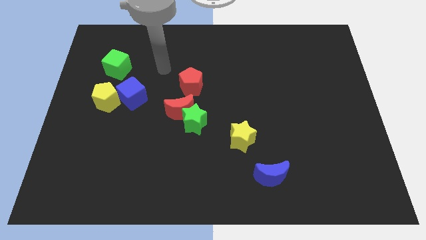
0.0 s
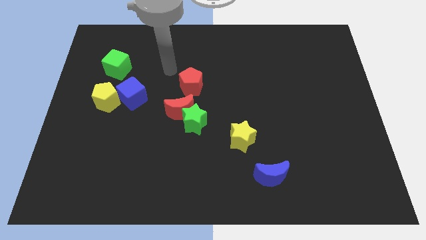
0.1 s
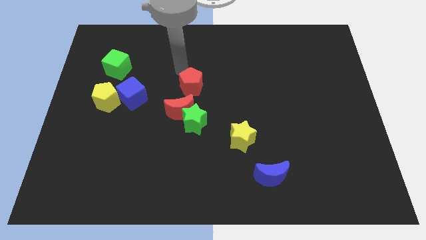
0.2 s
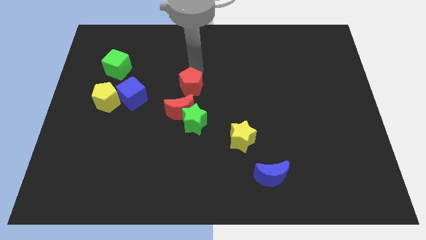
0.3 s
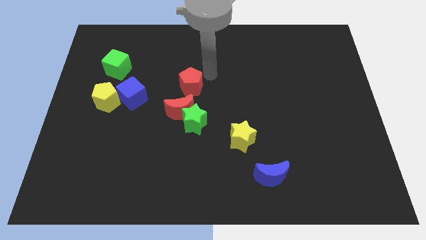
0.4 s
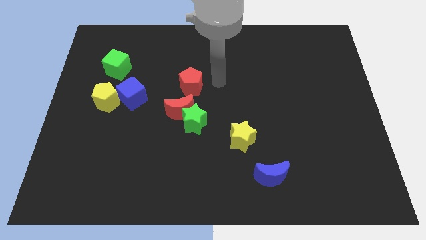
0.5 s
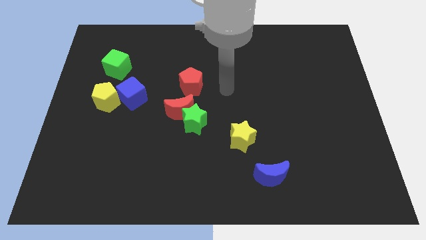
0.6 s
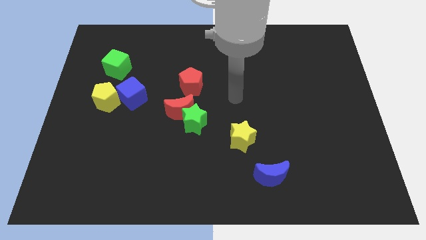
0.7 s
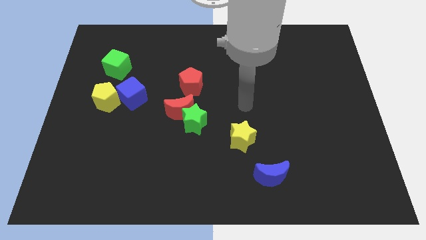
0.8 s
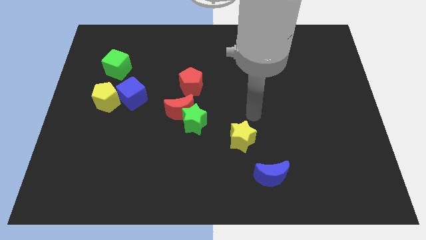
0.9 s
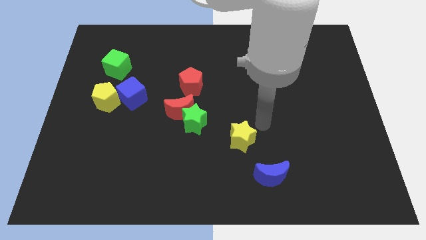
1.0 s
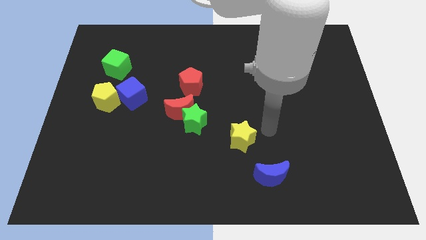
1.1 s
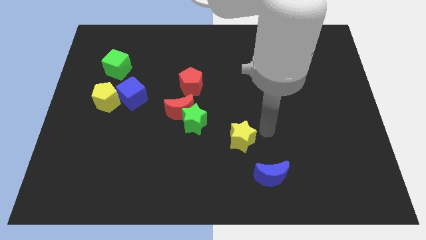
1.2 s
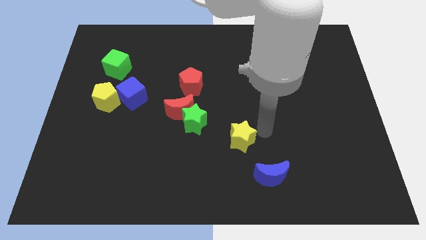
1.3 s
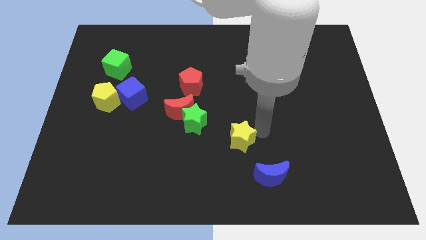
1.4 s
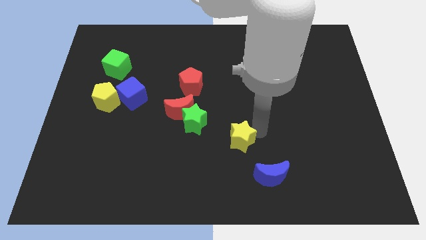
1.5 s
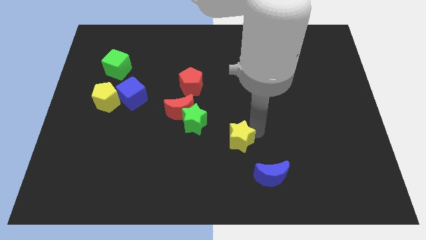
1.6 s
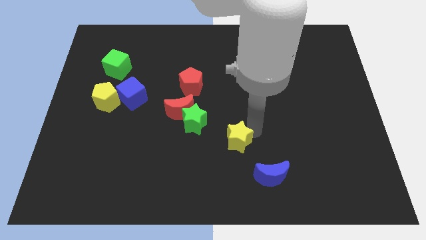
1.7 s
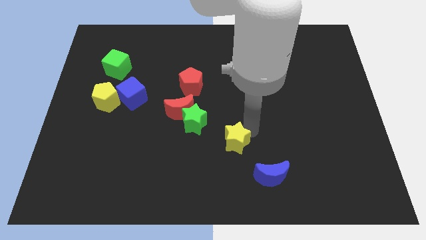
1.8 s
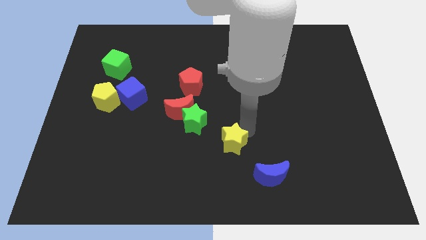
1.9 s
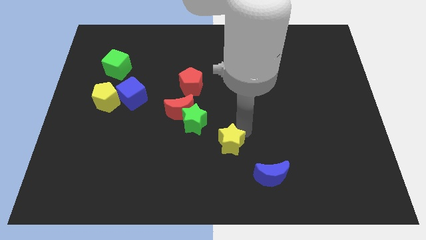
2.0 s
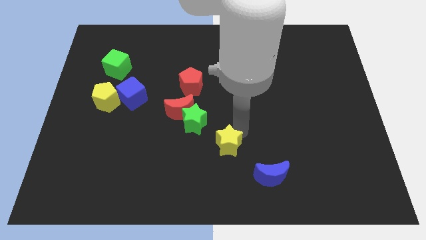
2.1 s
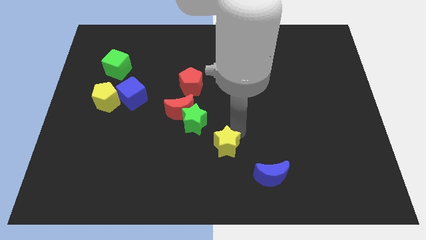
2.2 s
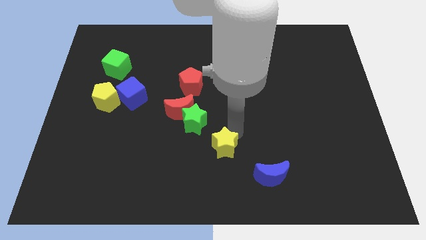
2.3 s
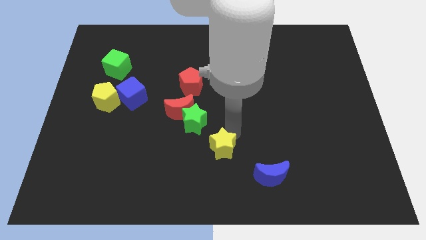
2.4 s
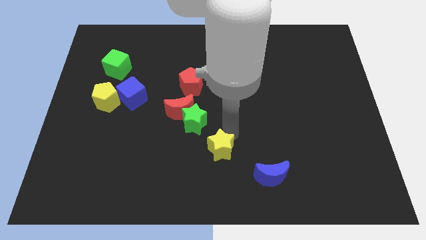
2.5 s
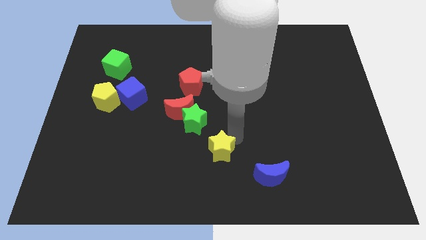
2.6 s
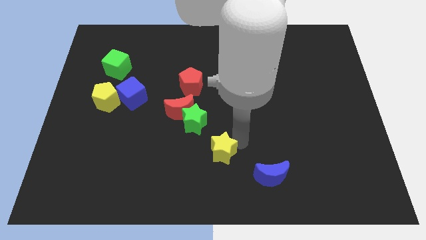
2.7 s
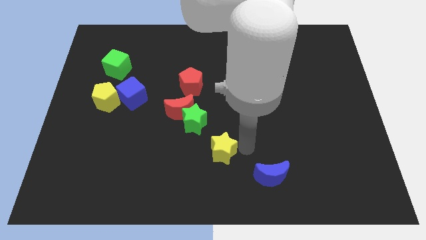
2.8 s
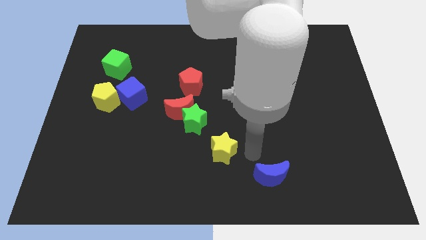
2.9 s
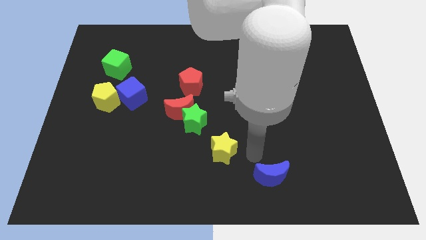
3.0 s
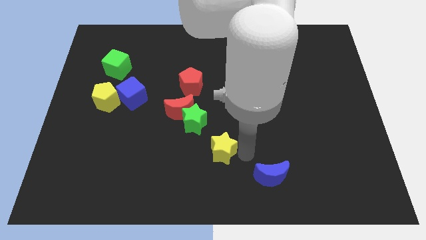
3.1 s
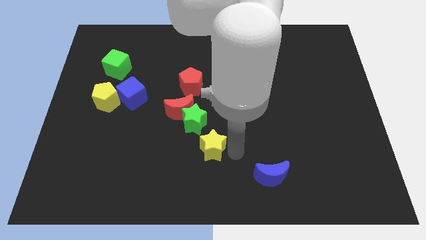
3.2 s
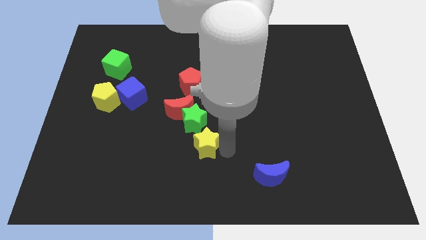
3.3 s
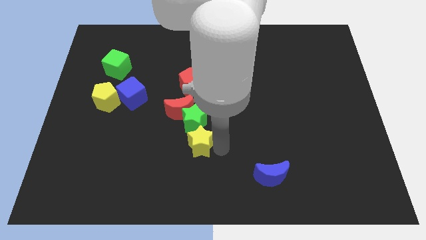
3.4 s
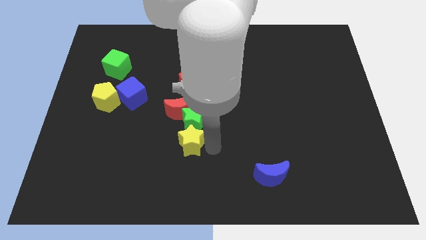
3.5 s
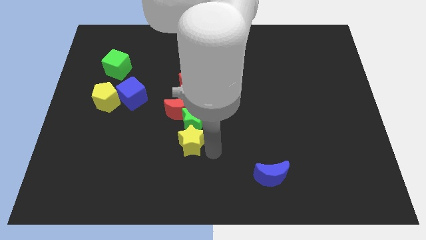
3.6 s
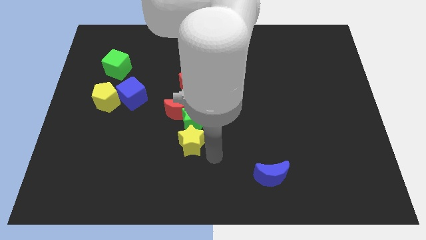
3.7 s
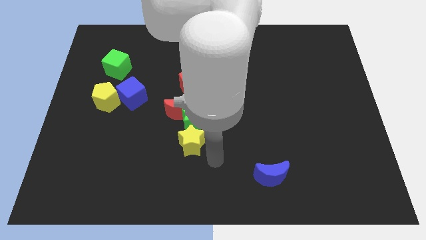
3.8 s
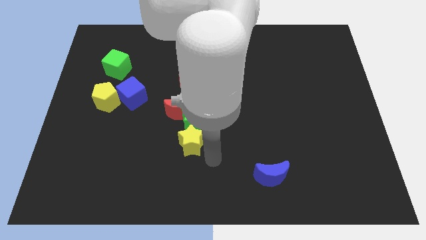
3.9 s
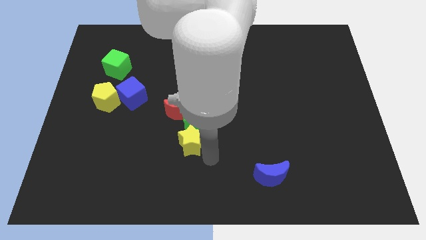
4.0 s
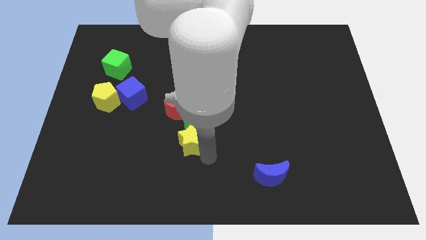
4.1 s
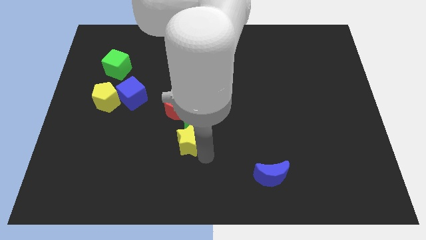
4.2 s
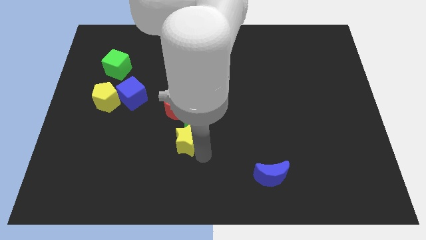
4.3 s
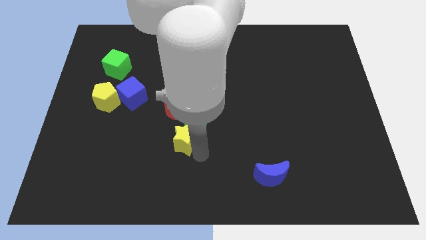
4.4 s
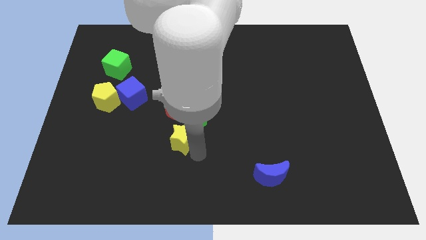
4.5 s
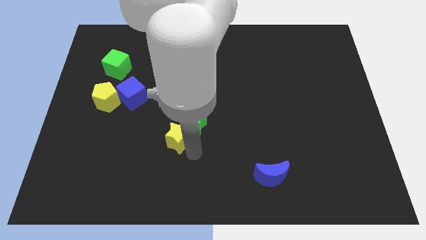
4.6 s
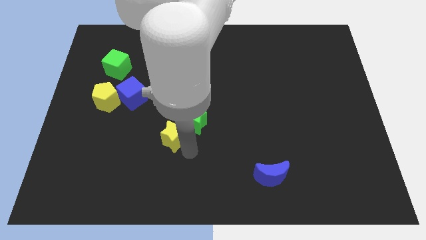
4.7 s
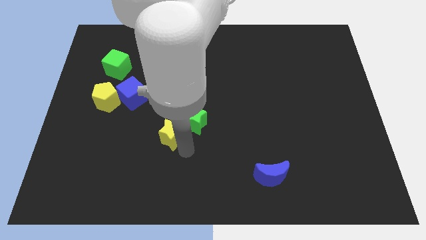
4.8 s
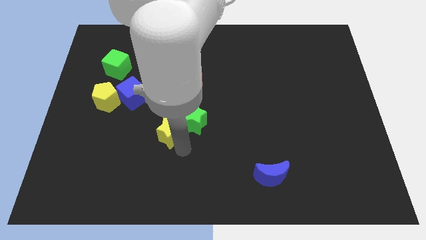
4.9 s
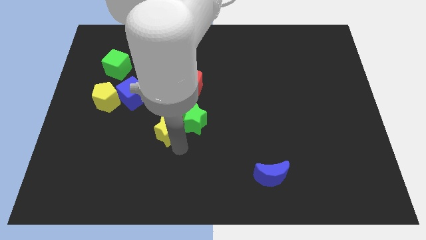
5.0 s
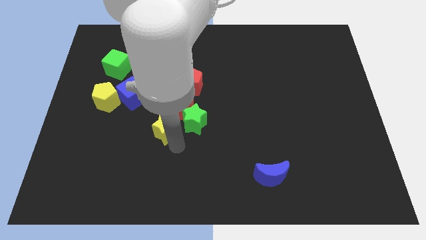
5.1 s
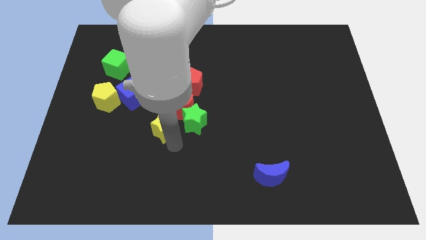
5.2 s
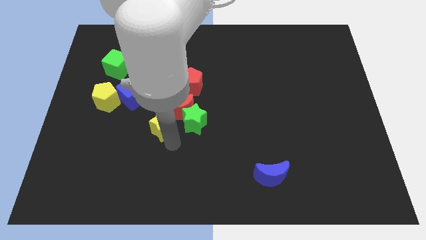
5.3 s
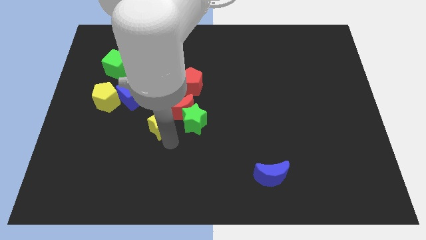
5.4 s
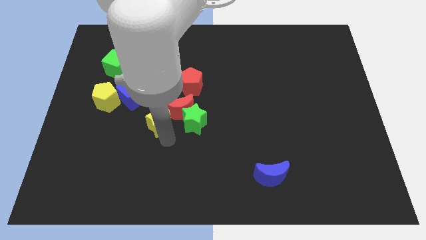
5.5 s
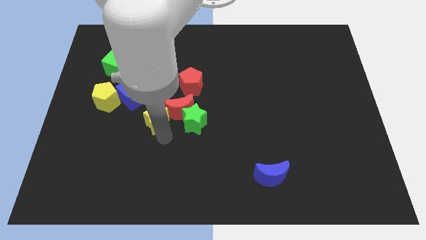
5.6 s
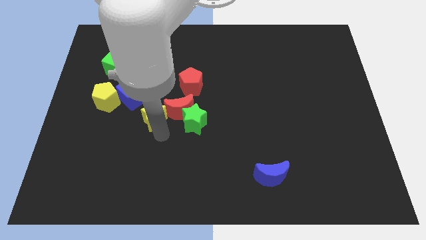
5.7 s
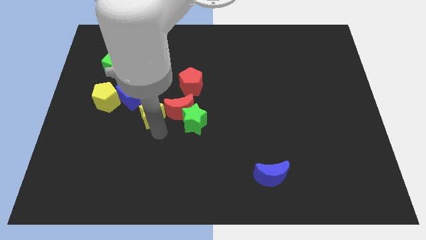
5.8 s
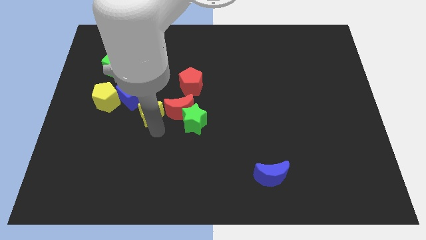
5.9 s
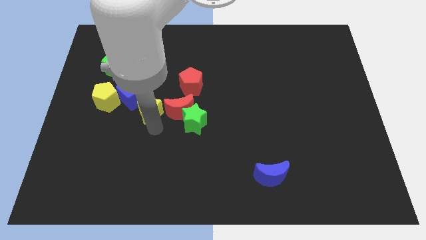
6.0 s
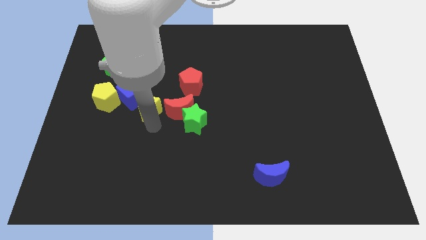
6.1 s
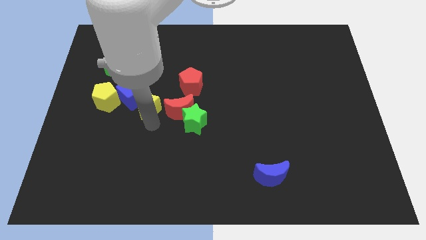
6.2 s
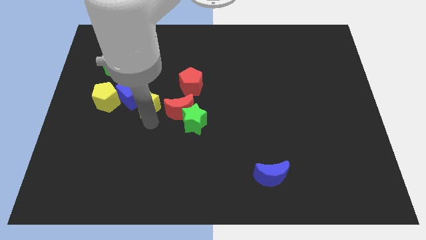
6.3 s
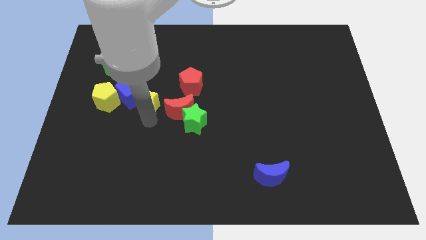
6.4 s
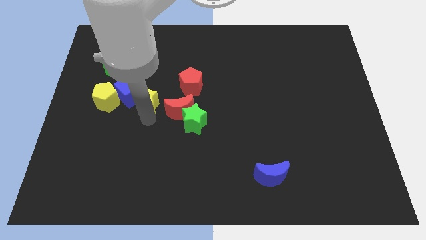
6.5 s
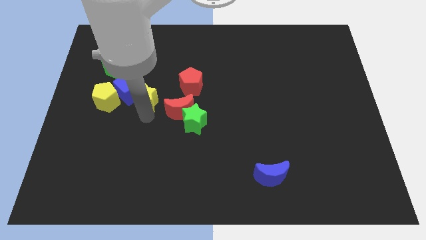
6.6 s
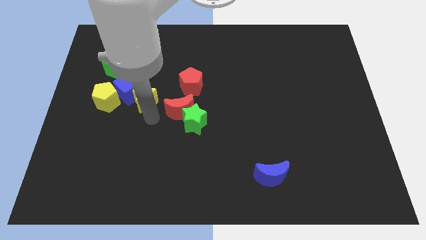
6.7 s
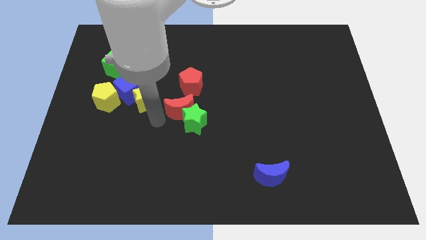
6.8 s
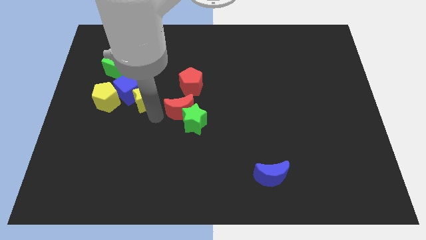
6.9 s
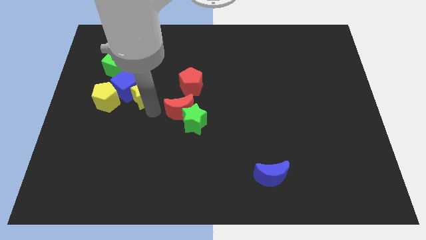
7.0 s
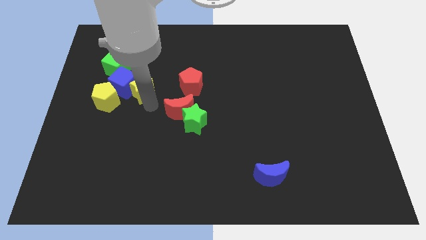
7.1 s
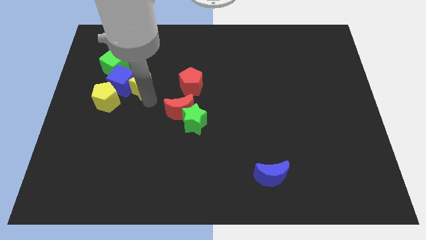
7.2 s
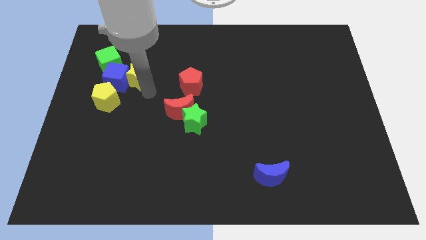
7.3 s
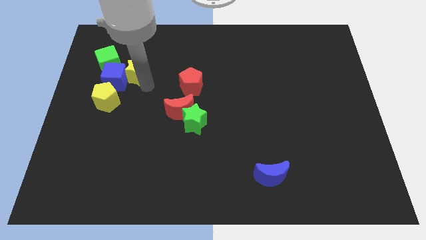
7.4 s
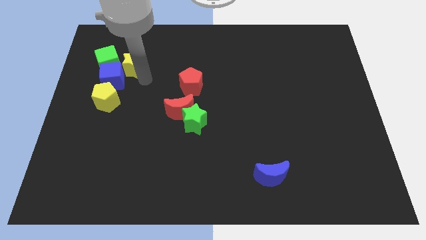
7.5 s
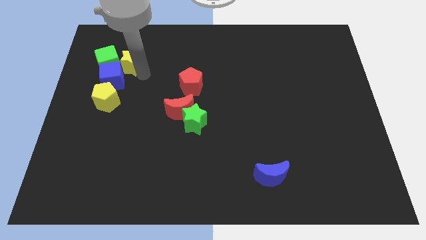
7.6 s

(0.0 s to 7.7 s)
slide the yellow star next to the green cube
